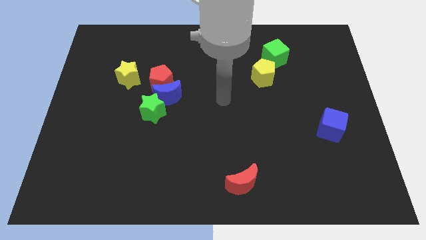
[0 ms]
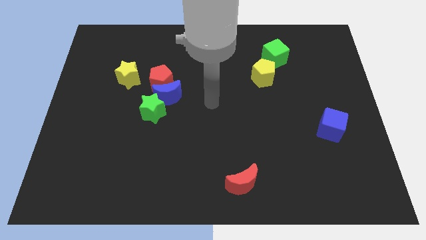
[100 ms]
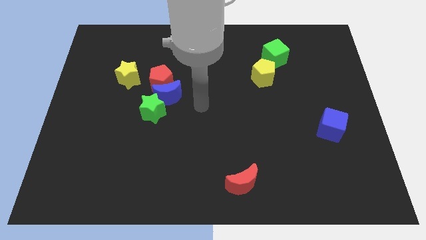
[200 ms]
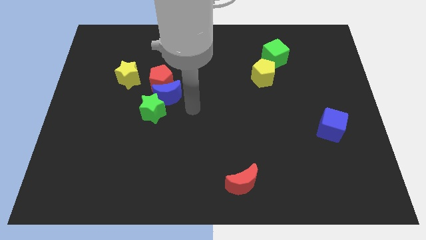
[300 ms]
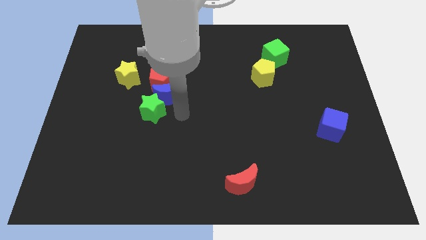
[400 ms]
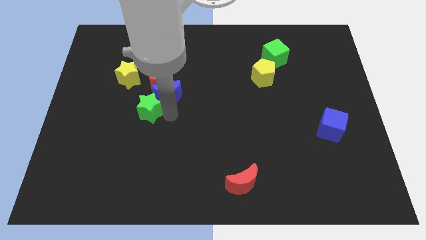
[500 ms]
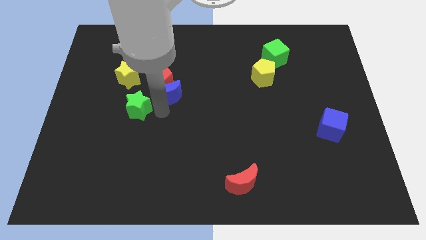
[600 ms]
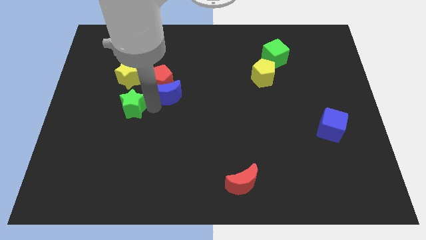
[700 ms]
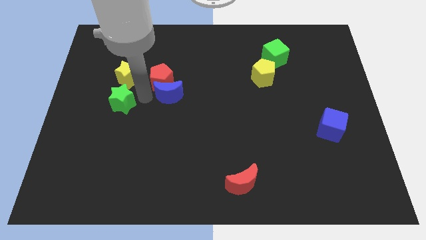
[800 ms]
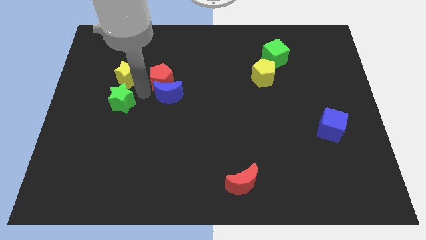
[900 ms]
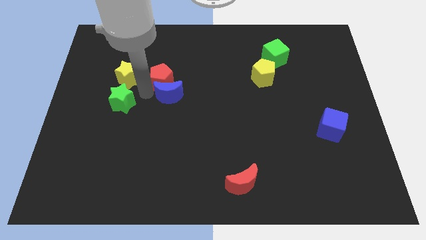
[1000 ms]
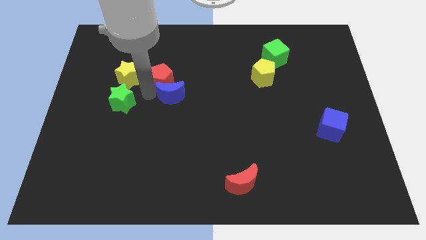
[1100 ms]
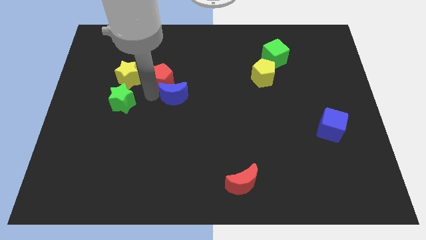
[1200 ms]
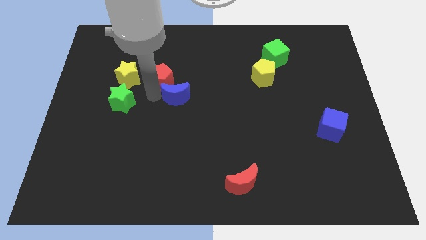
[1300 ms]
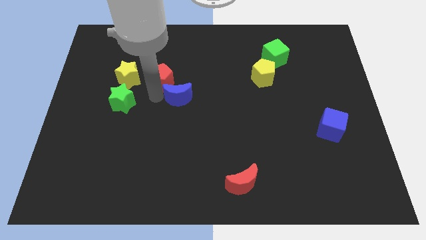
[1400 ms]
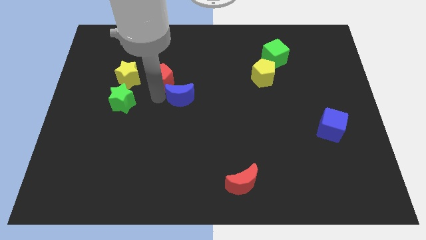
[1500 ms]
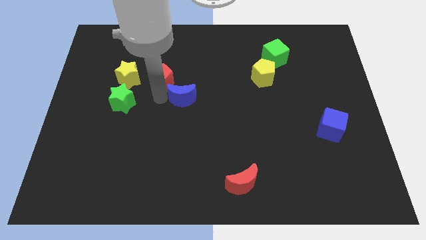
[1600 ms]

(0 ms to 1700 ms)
separate the blue moon from the red pentagon and green star

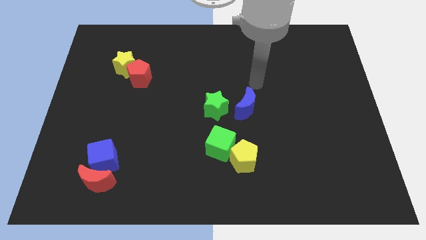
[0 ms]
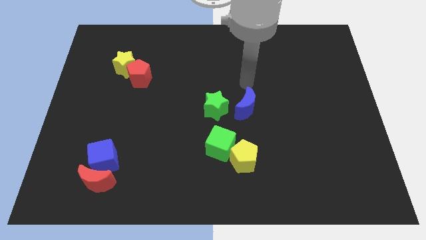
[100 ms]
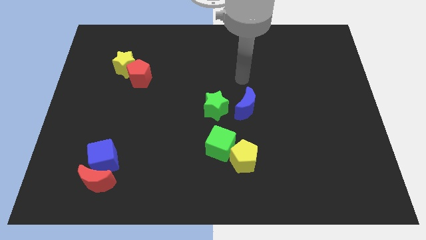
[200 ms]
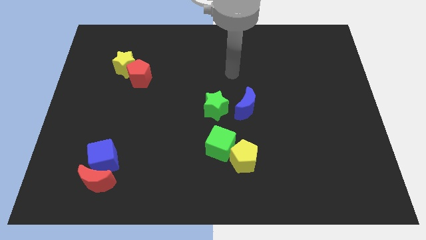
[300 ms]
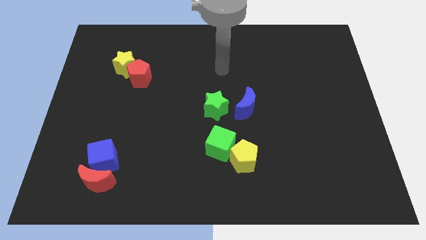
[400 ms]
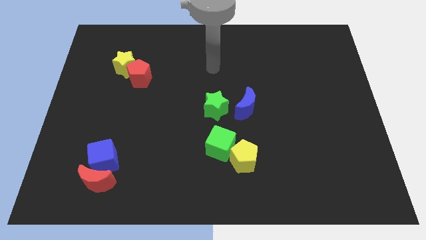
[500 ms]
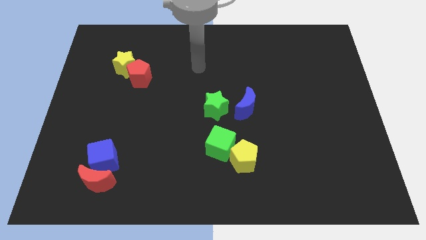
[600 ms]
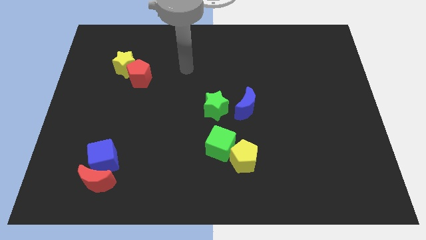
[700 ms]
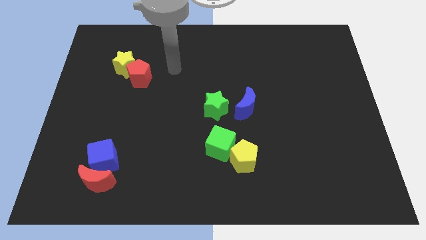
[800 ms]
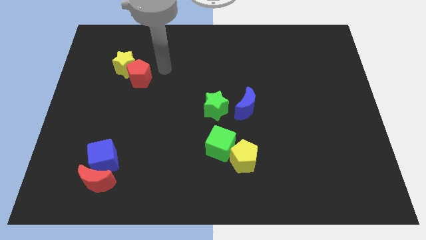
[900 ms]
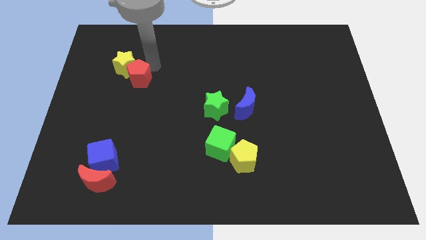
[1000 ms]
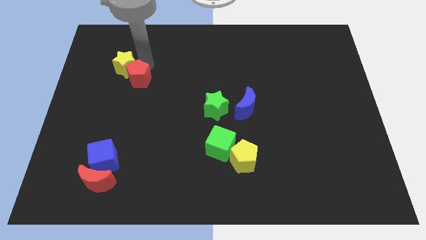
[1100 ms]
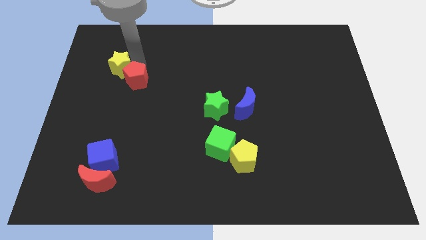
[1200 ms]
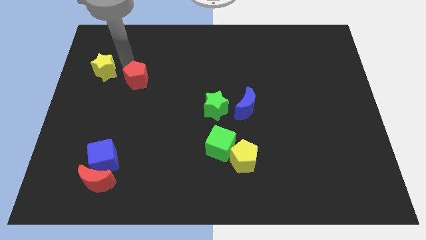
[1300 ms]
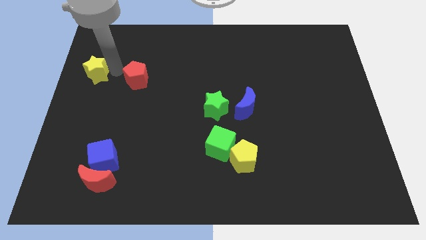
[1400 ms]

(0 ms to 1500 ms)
separate the red pentagon from the yellow star

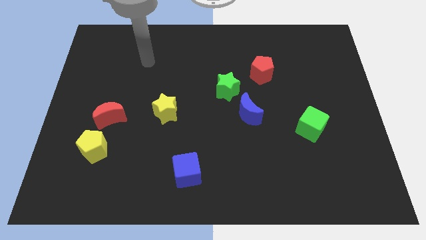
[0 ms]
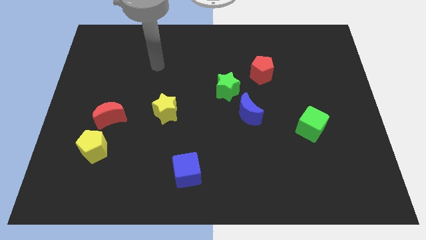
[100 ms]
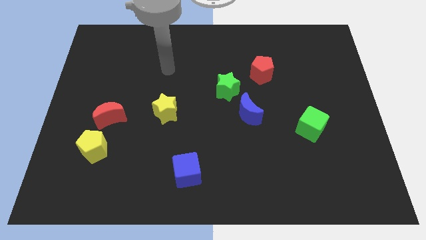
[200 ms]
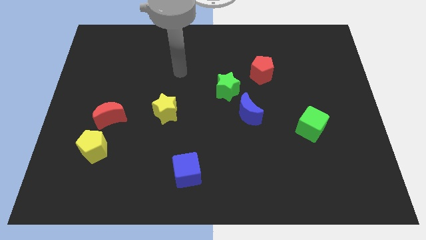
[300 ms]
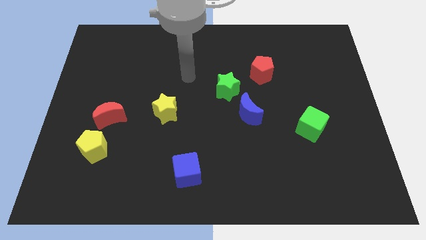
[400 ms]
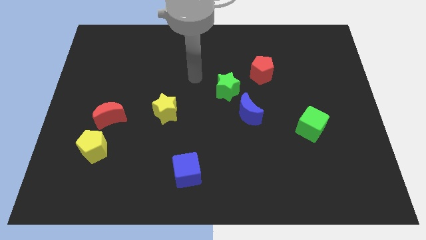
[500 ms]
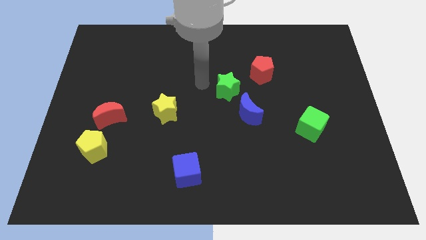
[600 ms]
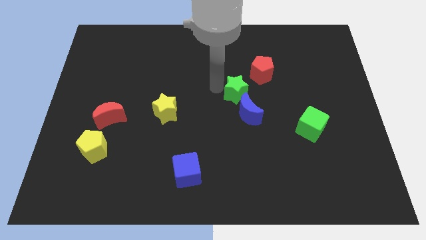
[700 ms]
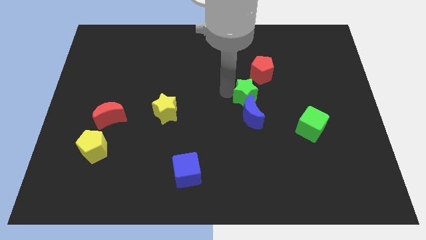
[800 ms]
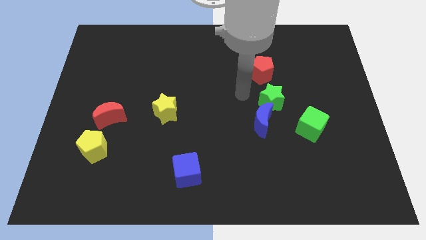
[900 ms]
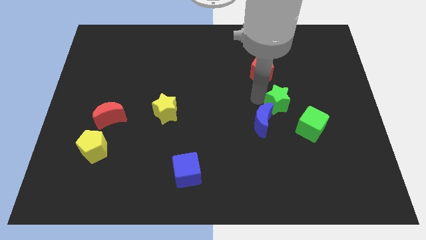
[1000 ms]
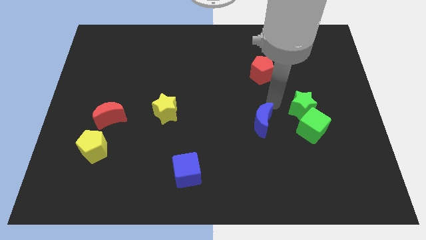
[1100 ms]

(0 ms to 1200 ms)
move the blue moon away from the green star

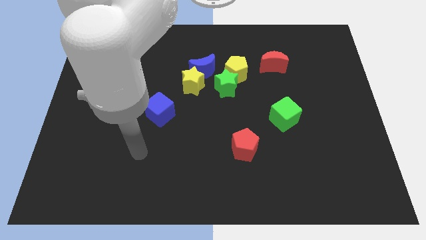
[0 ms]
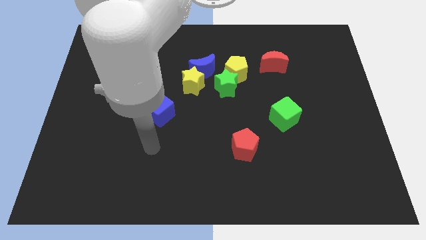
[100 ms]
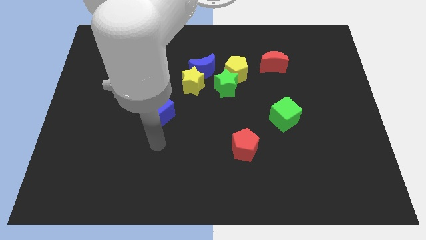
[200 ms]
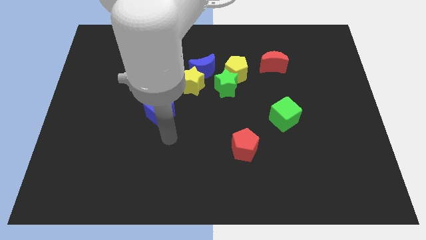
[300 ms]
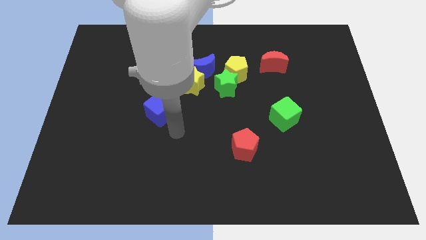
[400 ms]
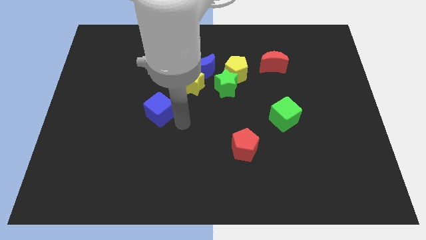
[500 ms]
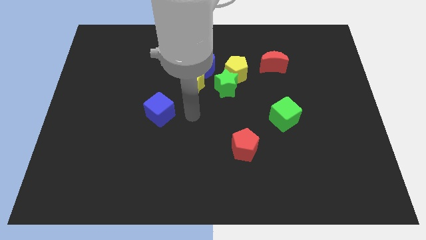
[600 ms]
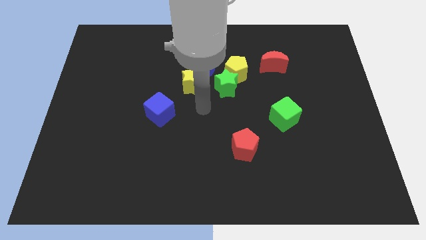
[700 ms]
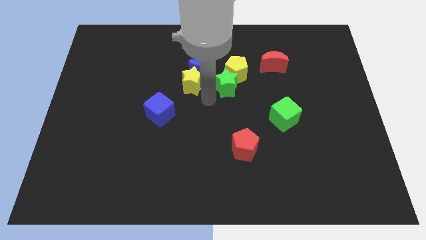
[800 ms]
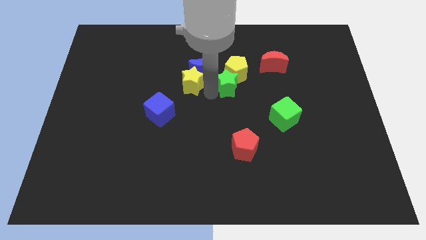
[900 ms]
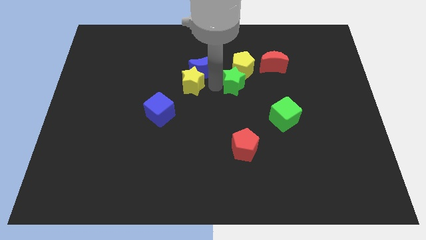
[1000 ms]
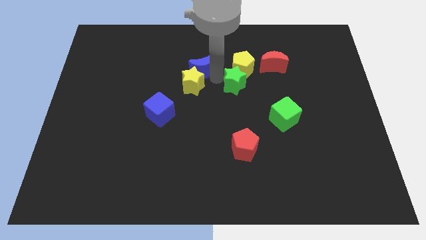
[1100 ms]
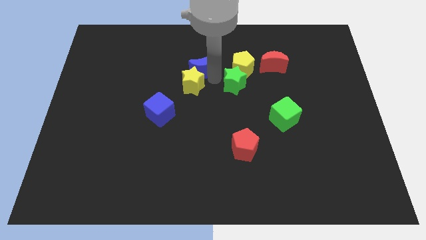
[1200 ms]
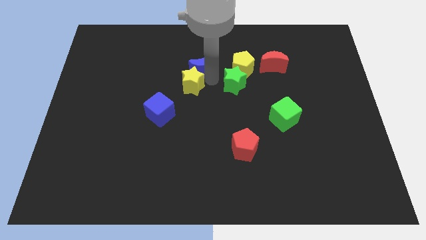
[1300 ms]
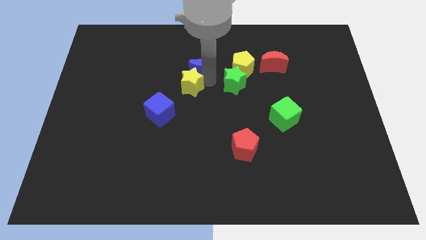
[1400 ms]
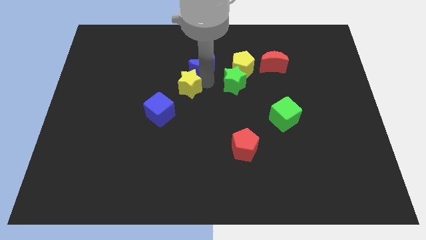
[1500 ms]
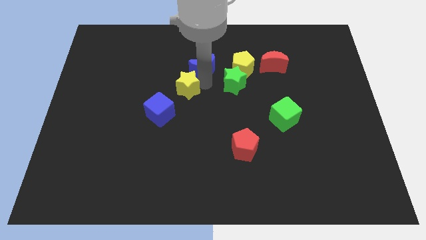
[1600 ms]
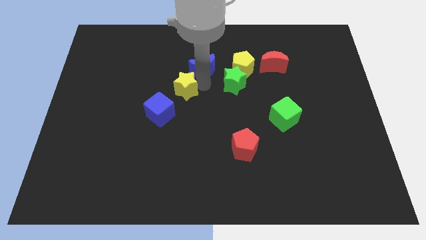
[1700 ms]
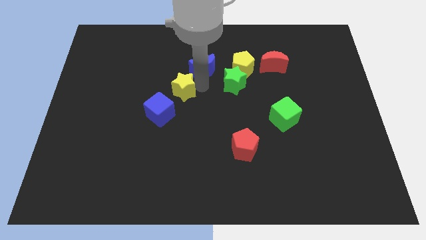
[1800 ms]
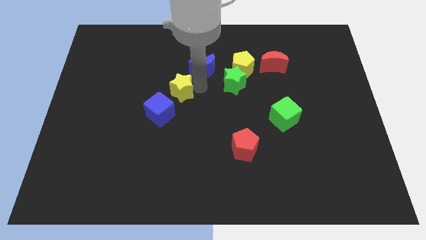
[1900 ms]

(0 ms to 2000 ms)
move the yellow star away from the blue moon and green star

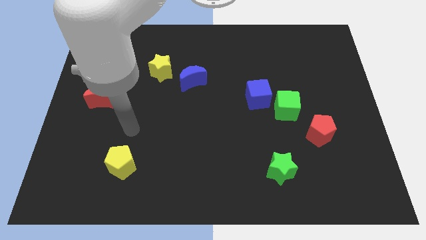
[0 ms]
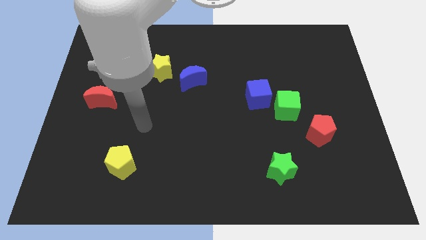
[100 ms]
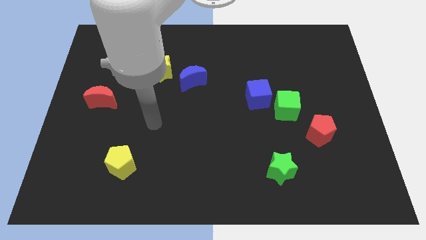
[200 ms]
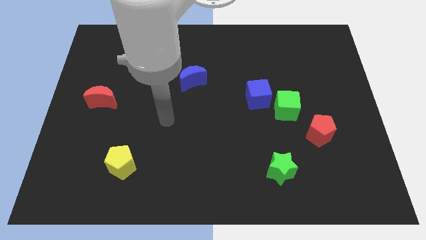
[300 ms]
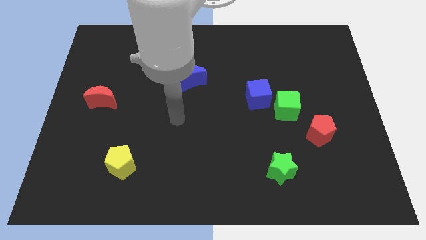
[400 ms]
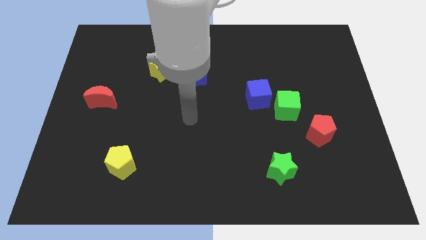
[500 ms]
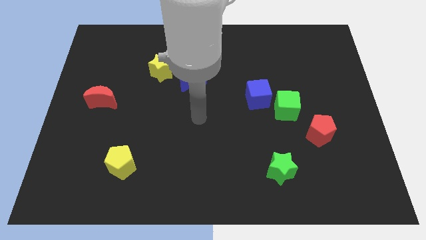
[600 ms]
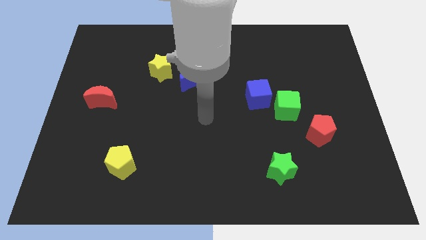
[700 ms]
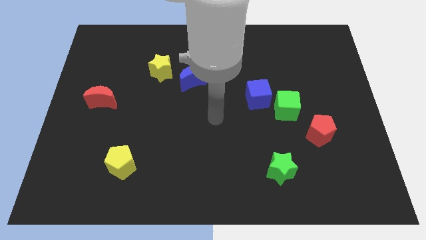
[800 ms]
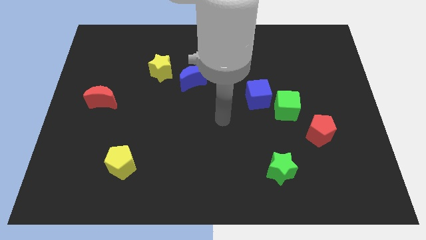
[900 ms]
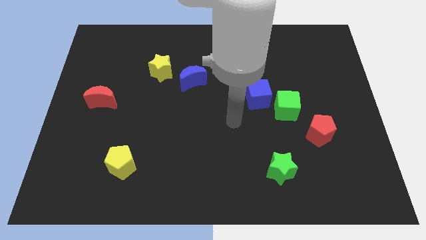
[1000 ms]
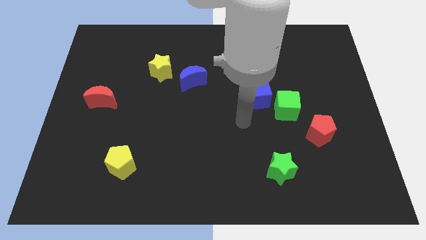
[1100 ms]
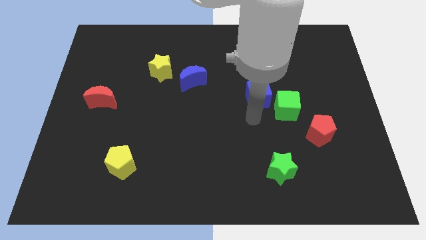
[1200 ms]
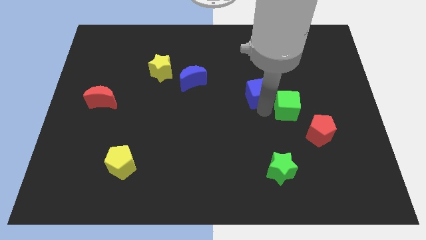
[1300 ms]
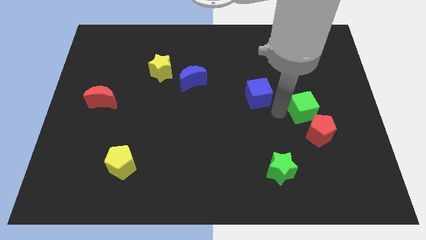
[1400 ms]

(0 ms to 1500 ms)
move the blue cube away from the green cube

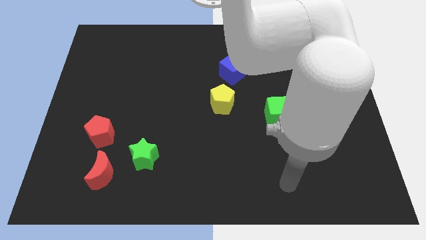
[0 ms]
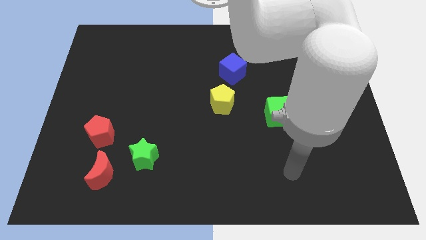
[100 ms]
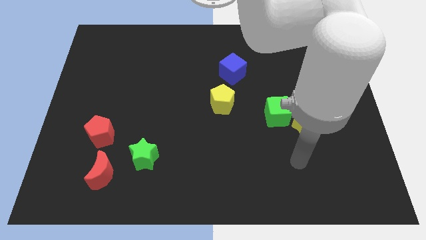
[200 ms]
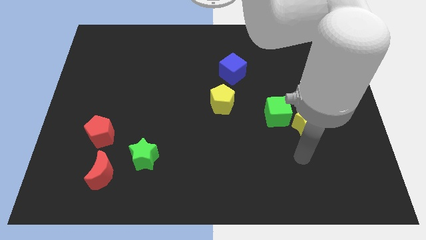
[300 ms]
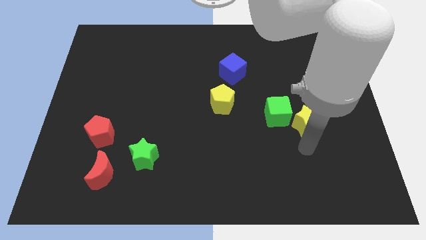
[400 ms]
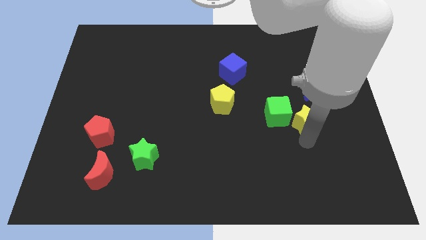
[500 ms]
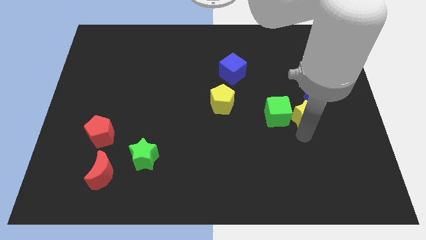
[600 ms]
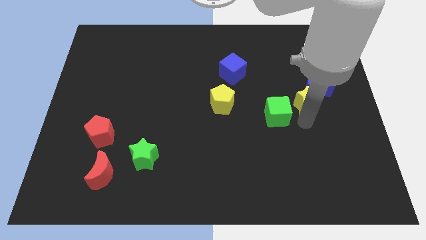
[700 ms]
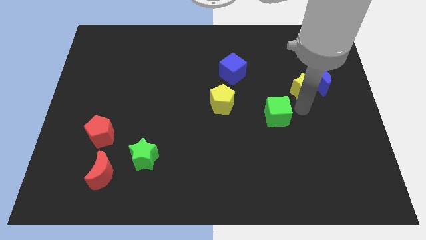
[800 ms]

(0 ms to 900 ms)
move the green cube away from the yellow star

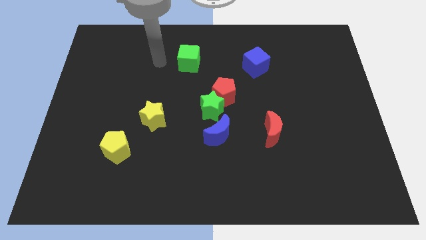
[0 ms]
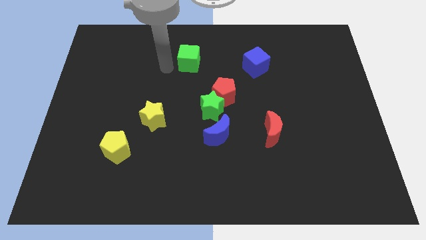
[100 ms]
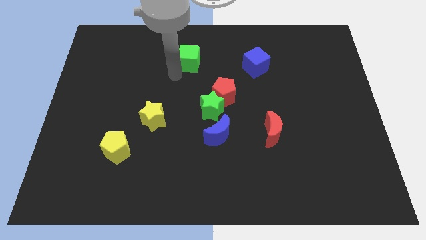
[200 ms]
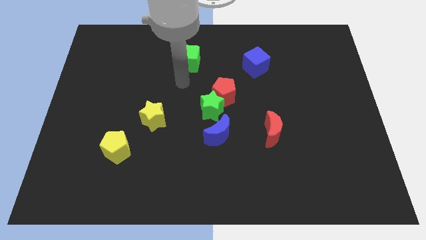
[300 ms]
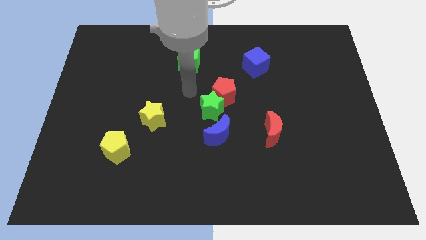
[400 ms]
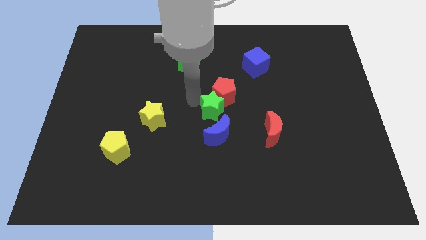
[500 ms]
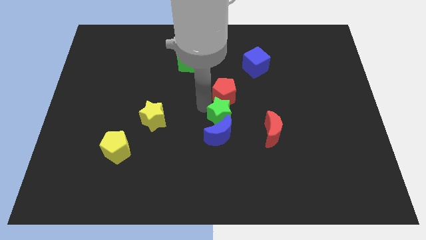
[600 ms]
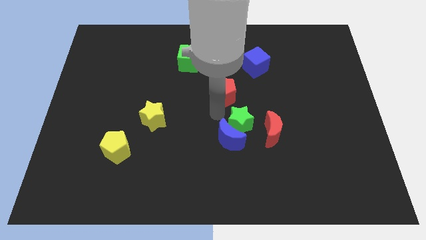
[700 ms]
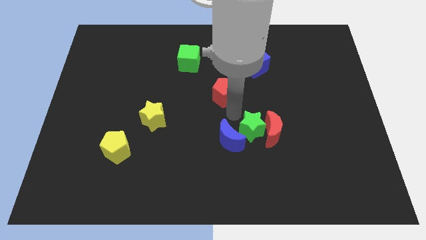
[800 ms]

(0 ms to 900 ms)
separate the red pentagon from the green star
